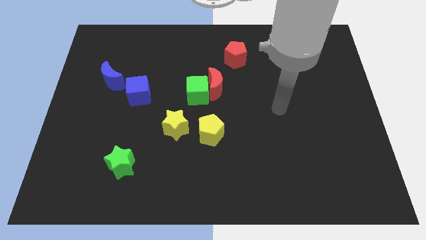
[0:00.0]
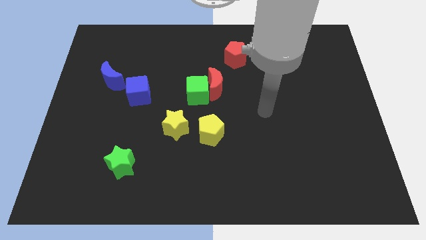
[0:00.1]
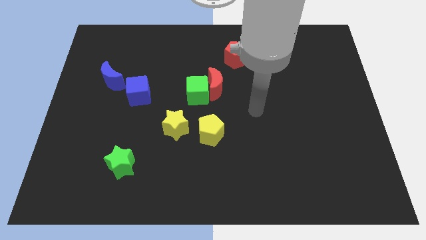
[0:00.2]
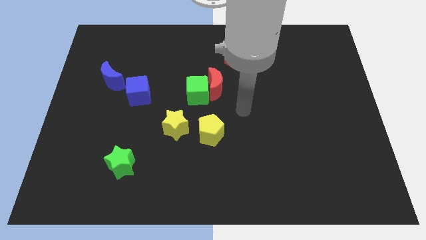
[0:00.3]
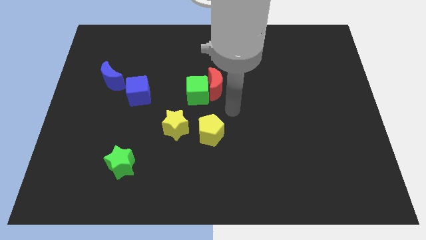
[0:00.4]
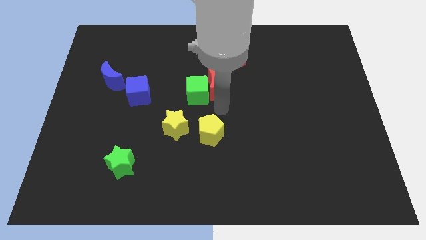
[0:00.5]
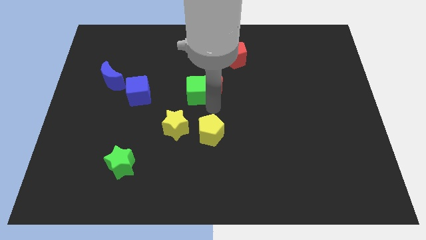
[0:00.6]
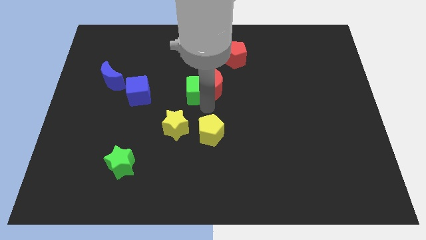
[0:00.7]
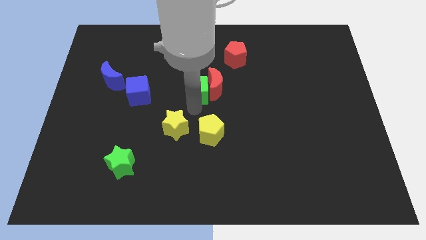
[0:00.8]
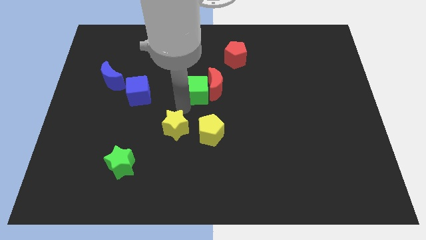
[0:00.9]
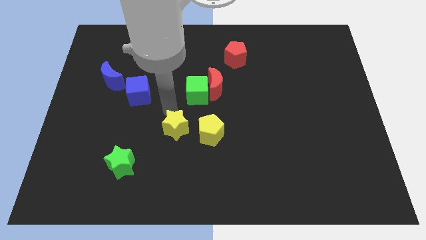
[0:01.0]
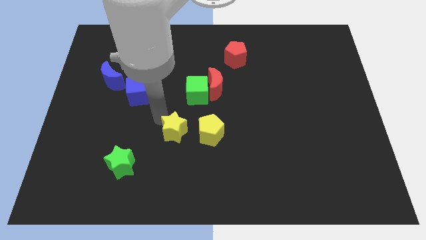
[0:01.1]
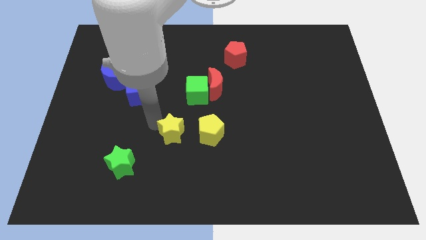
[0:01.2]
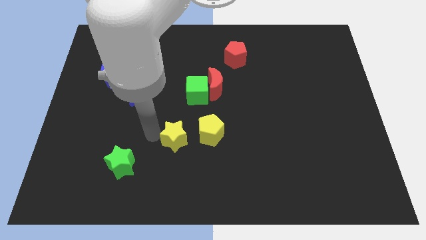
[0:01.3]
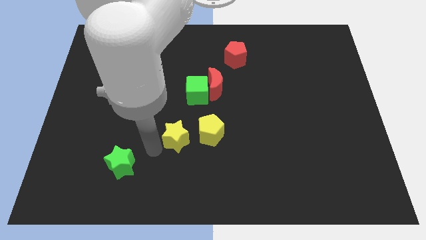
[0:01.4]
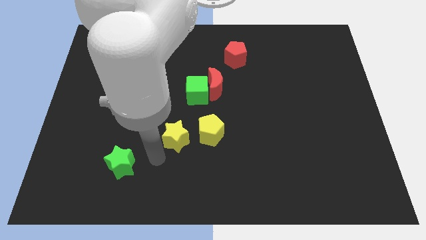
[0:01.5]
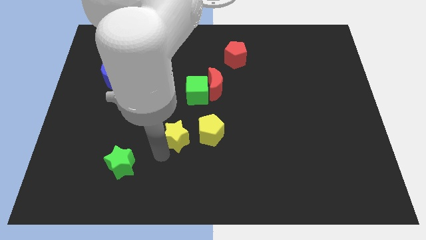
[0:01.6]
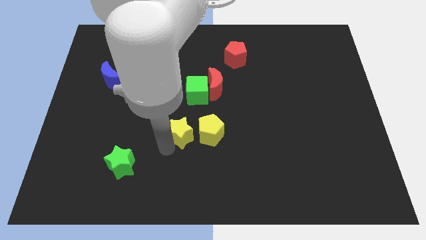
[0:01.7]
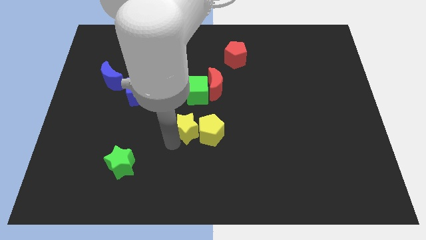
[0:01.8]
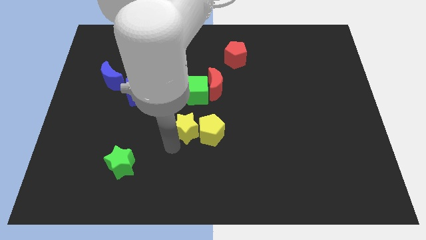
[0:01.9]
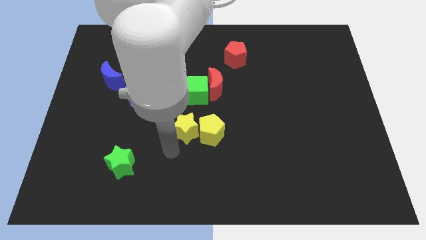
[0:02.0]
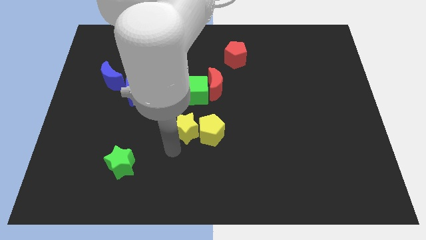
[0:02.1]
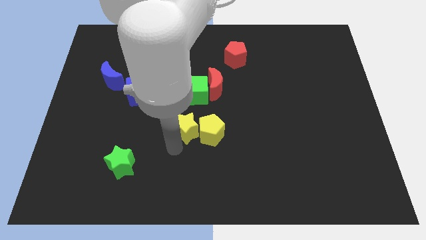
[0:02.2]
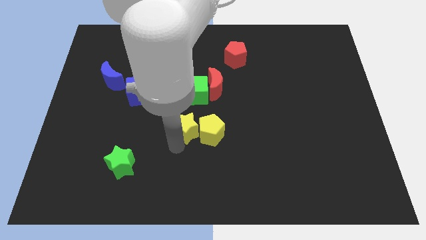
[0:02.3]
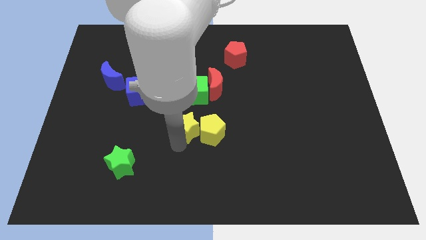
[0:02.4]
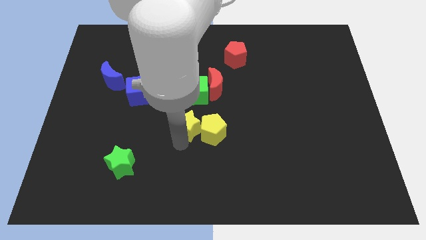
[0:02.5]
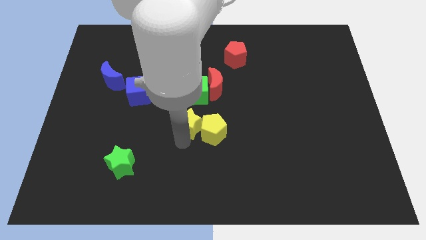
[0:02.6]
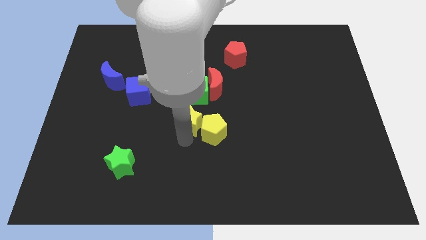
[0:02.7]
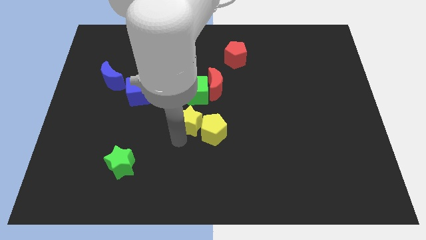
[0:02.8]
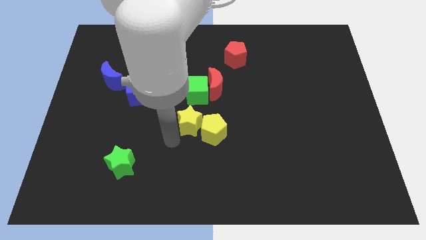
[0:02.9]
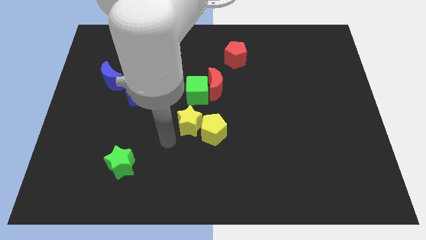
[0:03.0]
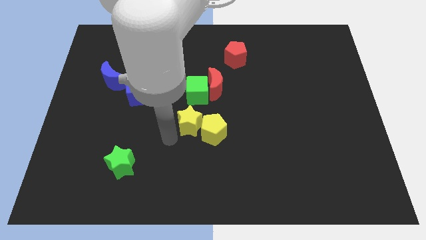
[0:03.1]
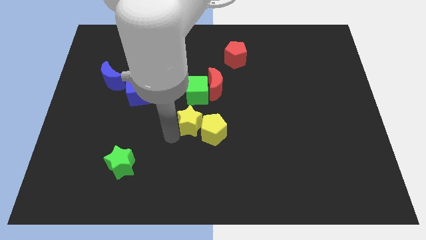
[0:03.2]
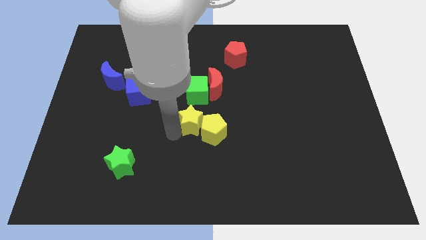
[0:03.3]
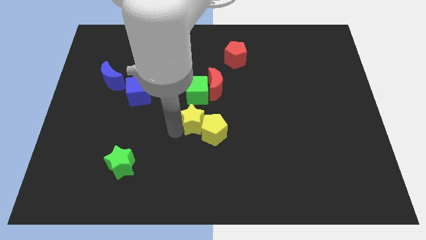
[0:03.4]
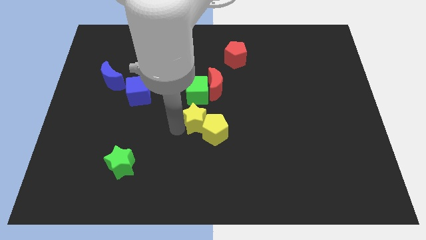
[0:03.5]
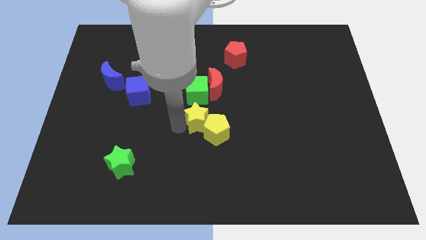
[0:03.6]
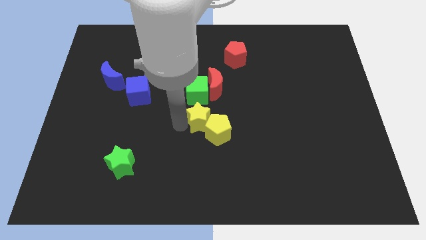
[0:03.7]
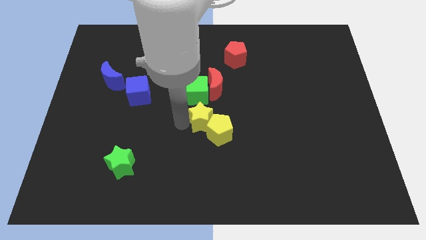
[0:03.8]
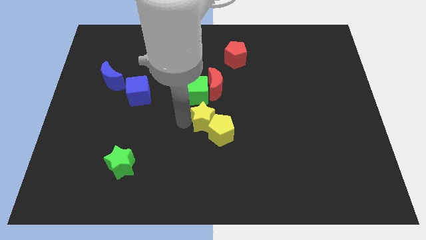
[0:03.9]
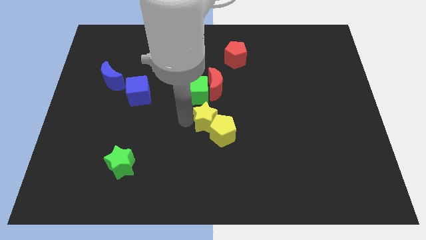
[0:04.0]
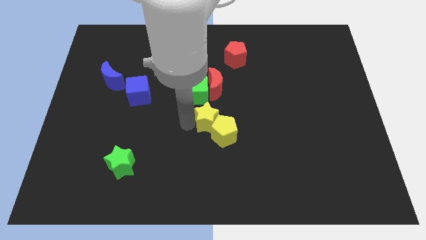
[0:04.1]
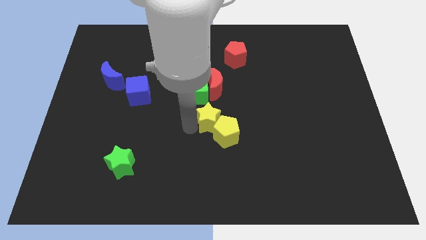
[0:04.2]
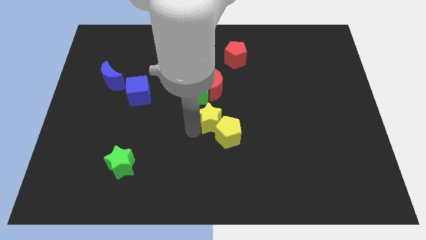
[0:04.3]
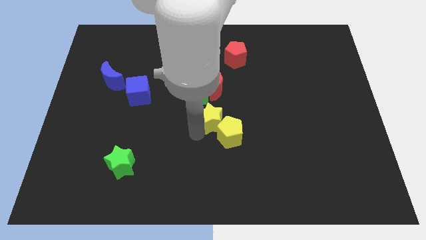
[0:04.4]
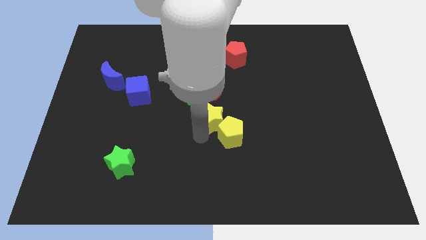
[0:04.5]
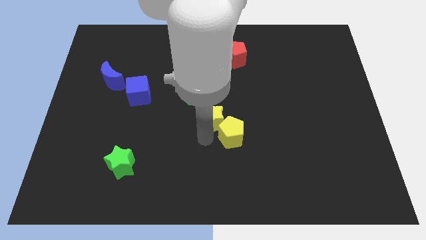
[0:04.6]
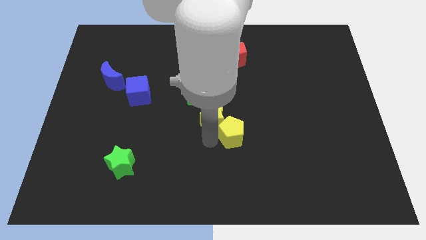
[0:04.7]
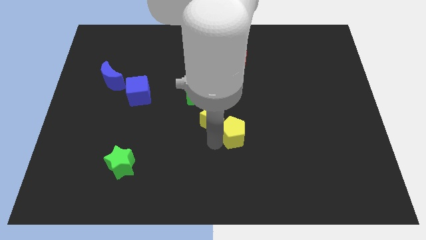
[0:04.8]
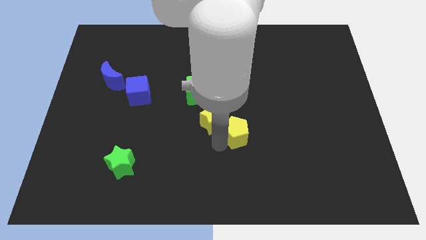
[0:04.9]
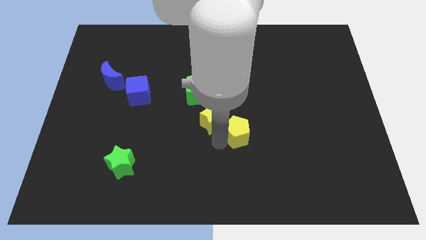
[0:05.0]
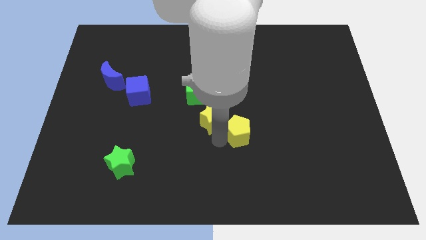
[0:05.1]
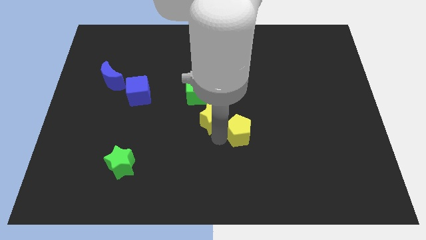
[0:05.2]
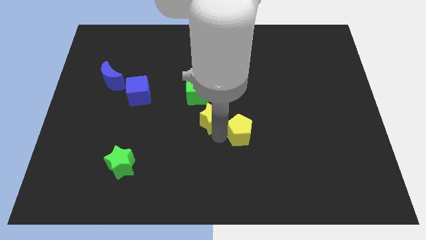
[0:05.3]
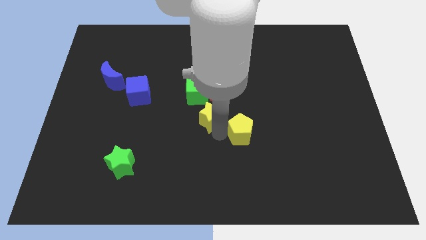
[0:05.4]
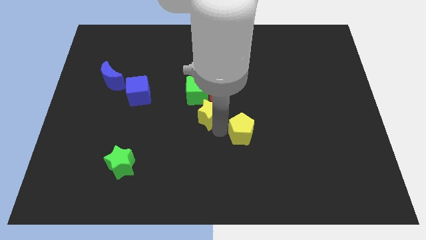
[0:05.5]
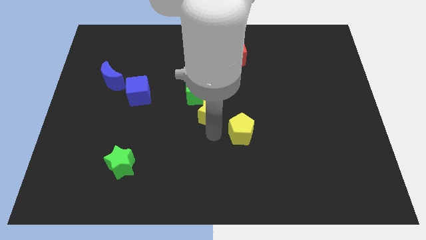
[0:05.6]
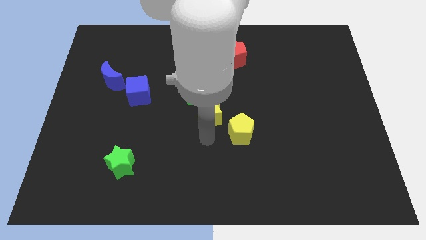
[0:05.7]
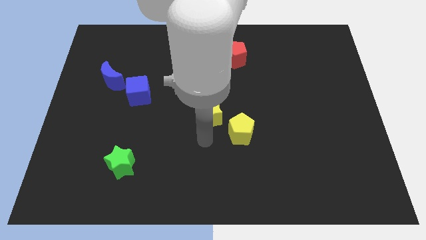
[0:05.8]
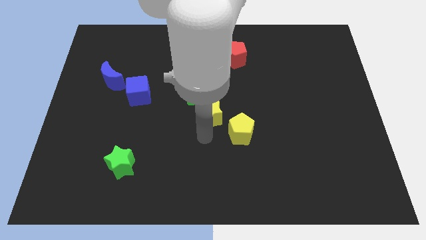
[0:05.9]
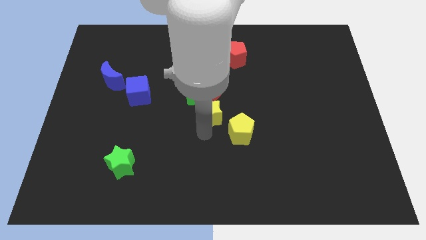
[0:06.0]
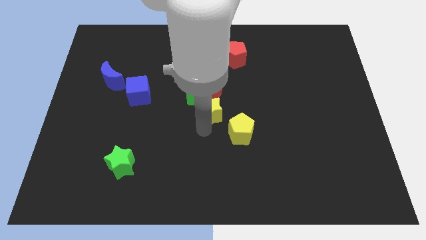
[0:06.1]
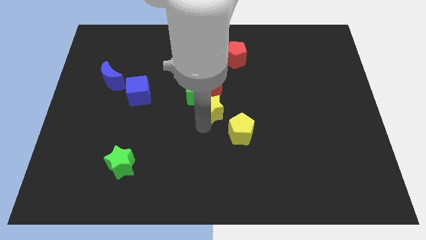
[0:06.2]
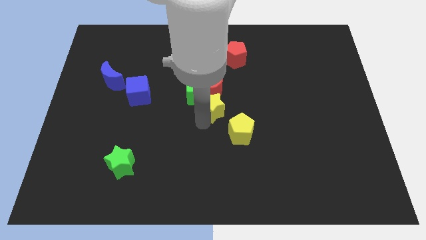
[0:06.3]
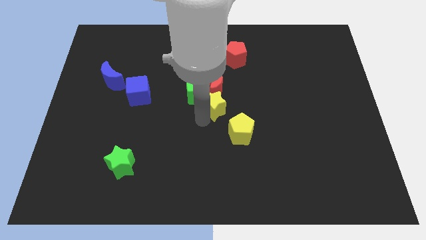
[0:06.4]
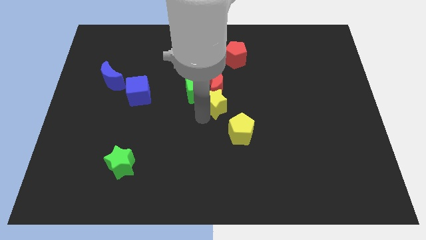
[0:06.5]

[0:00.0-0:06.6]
put the yellow star next to the red moon
